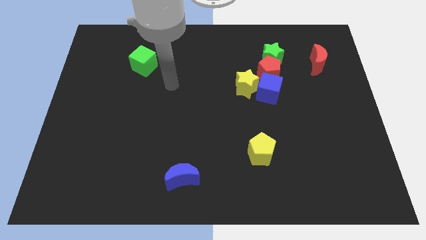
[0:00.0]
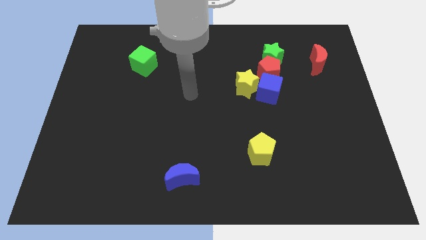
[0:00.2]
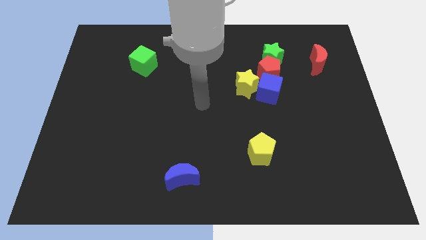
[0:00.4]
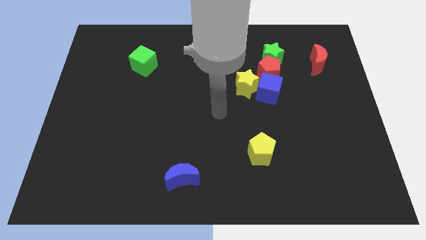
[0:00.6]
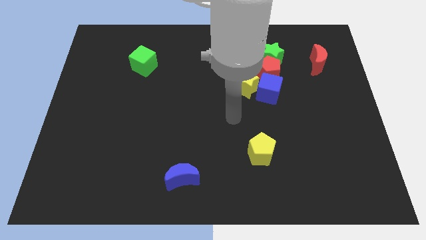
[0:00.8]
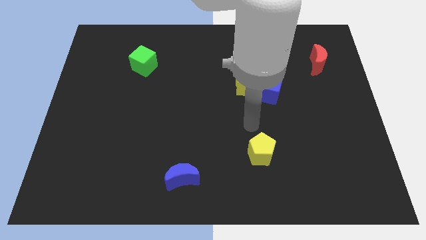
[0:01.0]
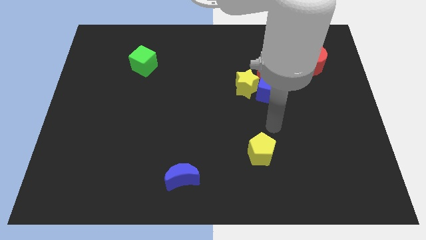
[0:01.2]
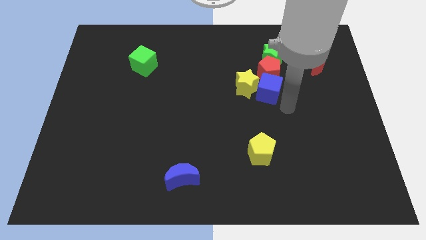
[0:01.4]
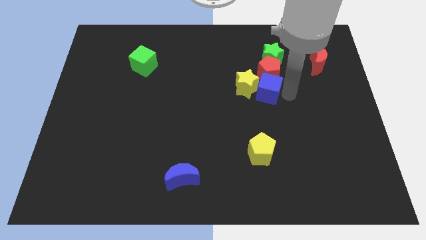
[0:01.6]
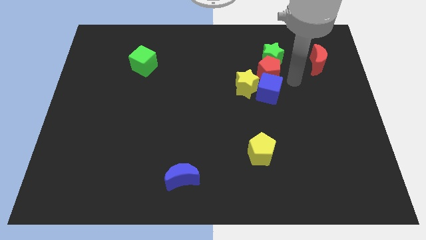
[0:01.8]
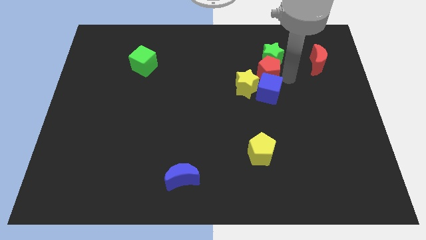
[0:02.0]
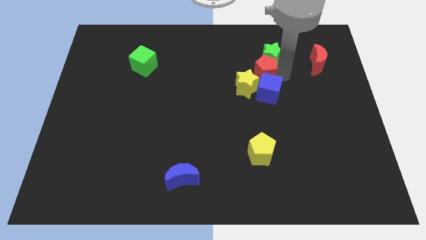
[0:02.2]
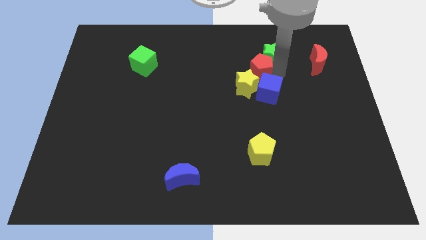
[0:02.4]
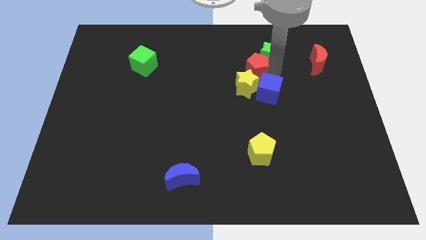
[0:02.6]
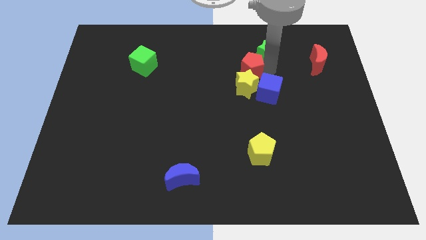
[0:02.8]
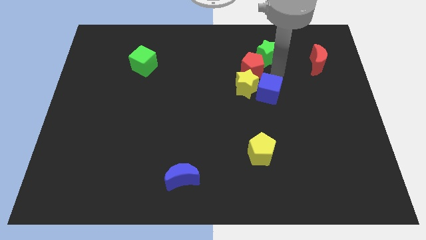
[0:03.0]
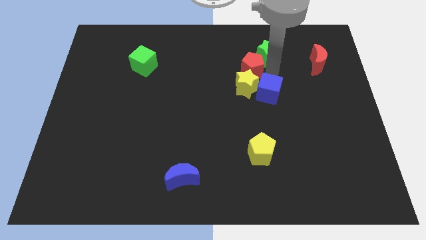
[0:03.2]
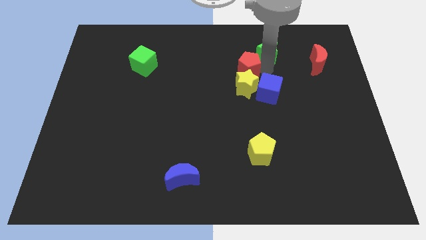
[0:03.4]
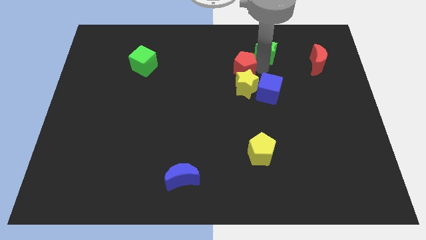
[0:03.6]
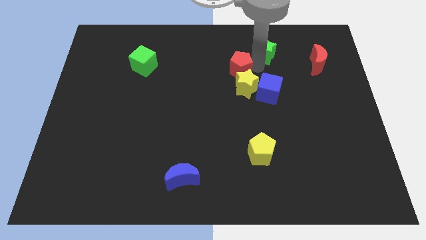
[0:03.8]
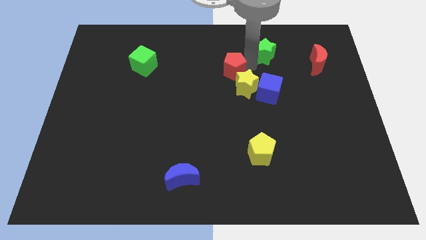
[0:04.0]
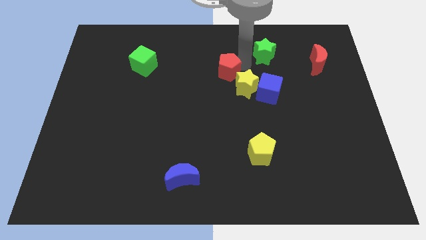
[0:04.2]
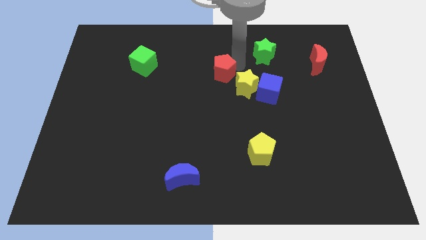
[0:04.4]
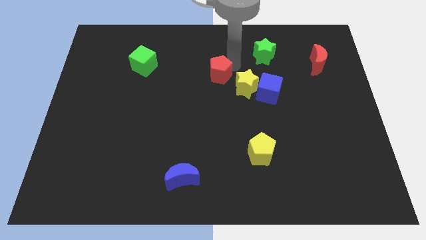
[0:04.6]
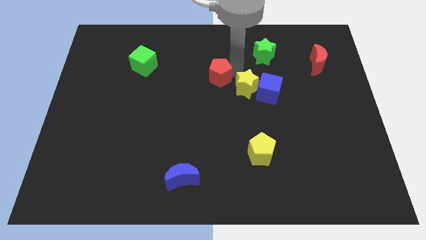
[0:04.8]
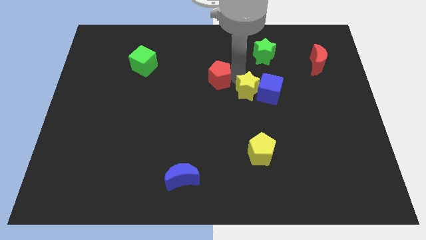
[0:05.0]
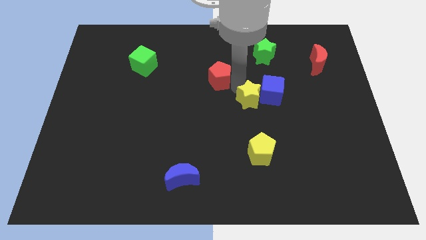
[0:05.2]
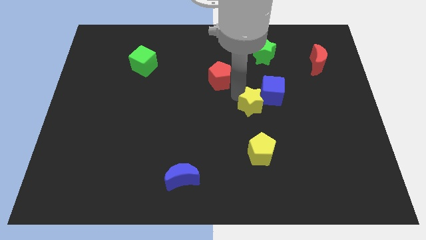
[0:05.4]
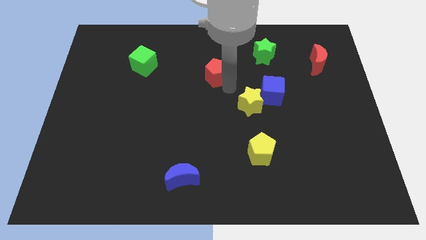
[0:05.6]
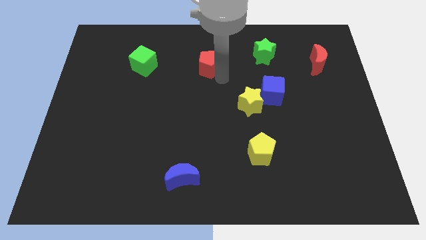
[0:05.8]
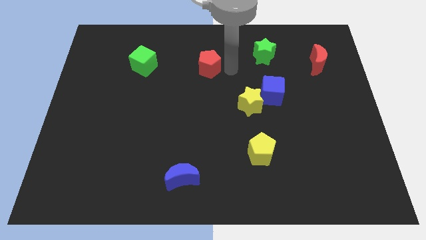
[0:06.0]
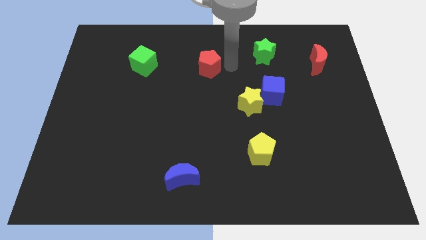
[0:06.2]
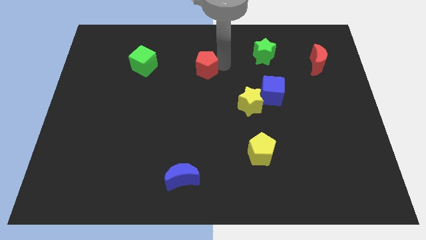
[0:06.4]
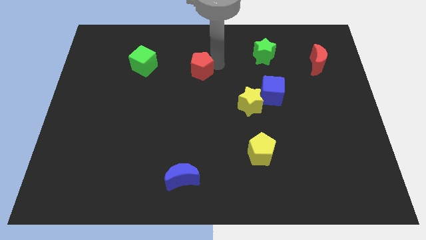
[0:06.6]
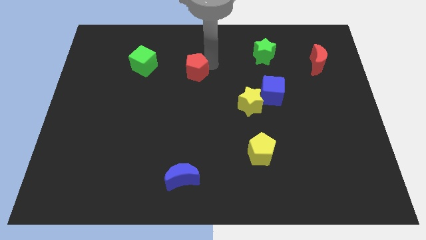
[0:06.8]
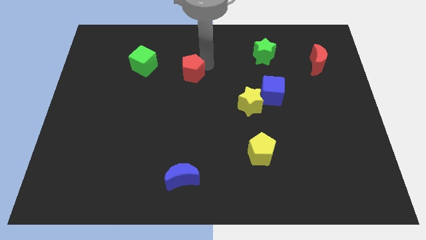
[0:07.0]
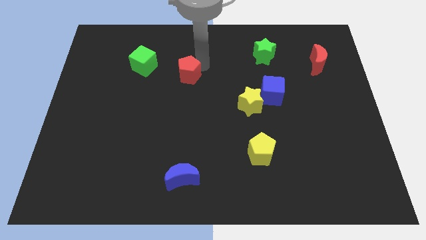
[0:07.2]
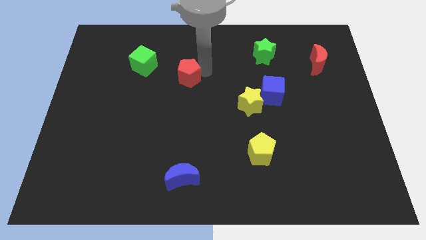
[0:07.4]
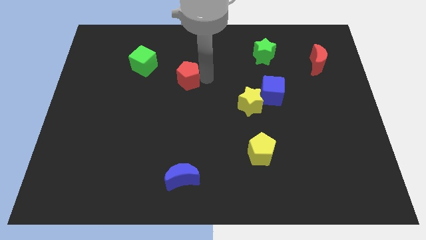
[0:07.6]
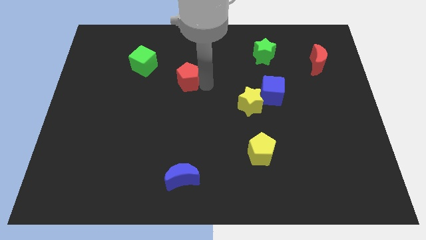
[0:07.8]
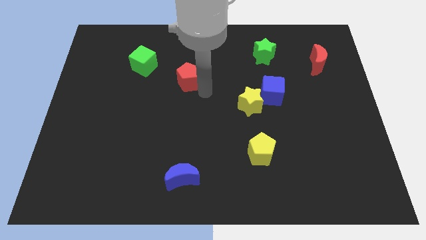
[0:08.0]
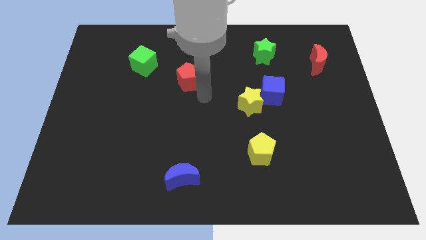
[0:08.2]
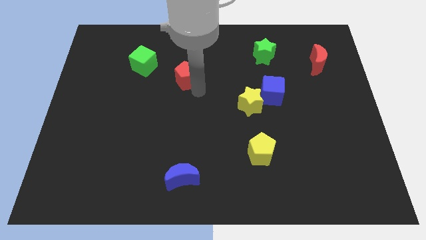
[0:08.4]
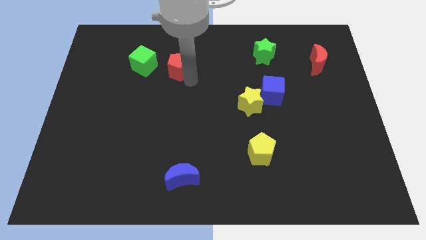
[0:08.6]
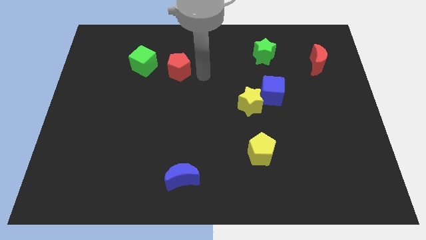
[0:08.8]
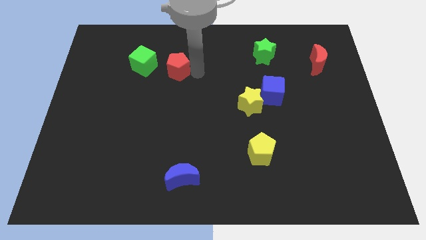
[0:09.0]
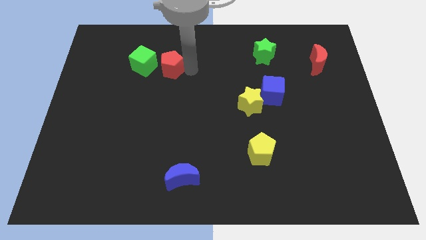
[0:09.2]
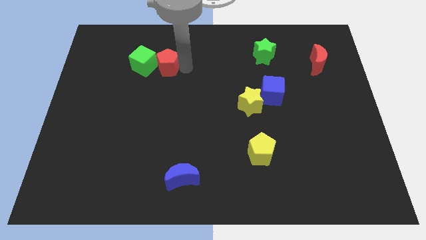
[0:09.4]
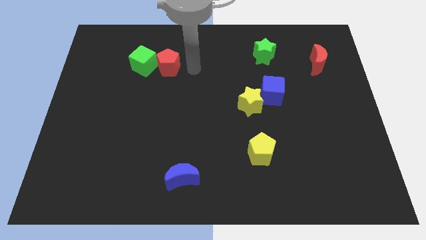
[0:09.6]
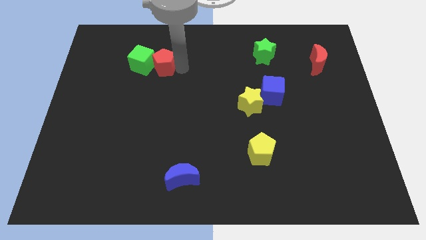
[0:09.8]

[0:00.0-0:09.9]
move the red pentagon to the green cube

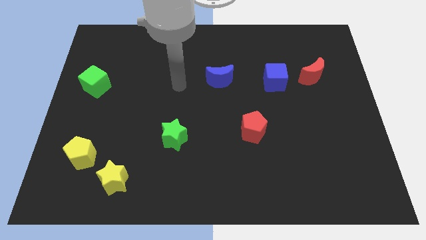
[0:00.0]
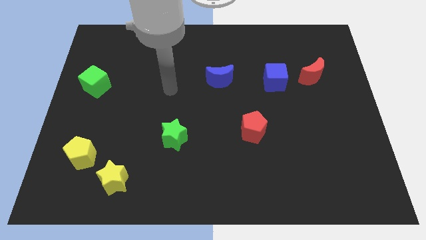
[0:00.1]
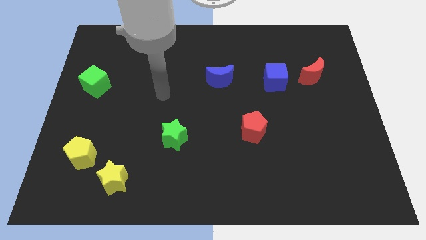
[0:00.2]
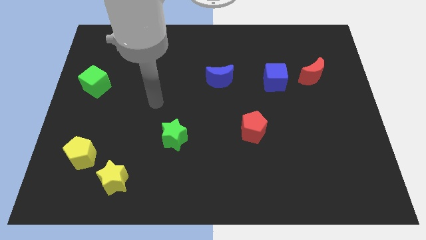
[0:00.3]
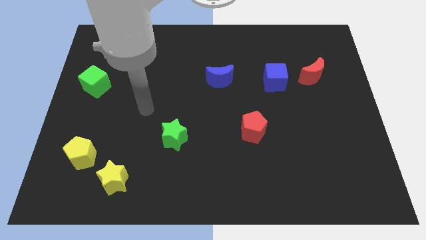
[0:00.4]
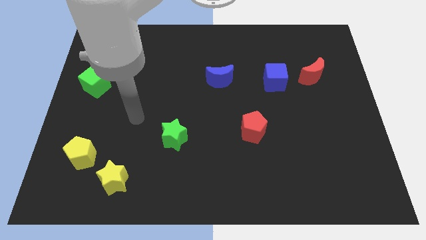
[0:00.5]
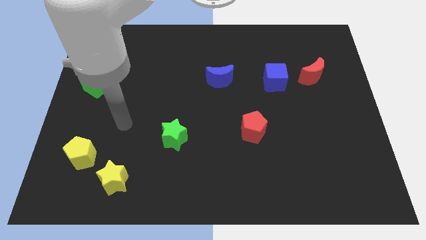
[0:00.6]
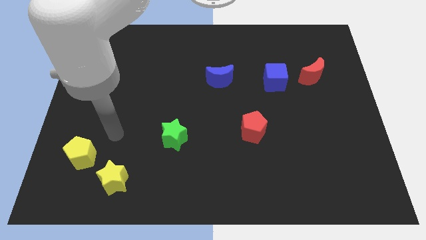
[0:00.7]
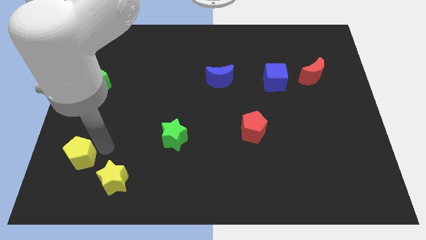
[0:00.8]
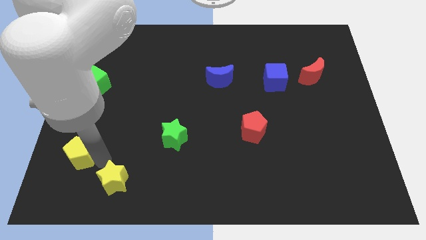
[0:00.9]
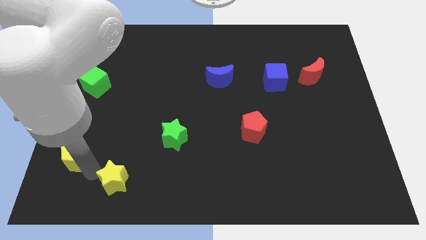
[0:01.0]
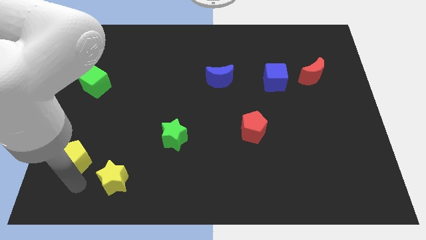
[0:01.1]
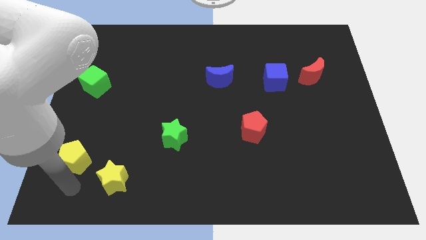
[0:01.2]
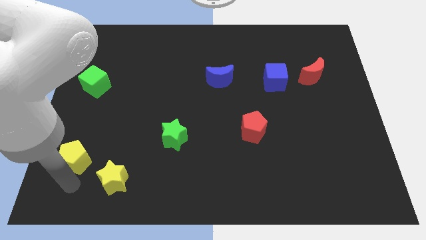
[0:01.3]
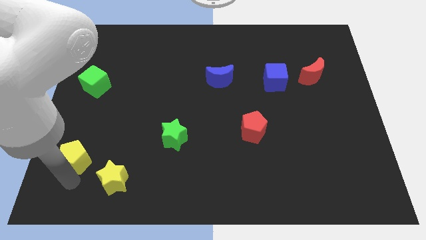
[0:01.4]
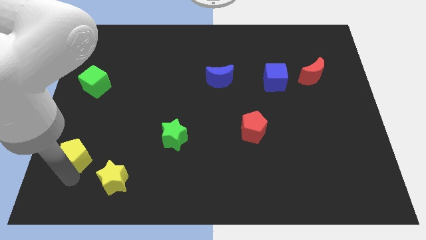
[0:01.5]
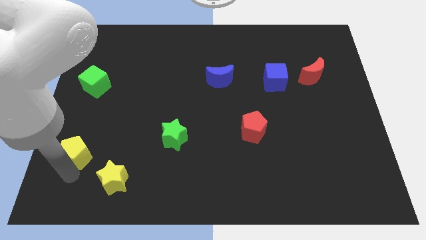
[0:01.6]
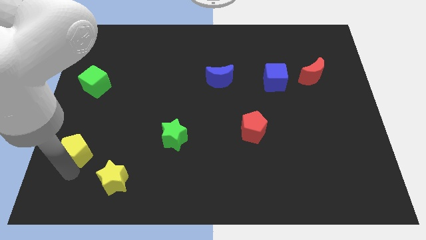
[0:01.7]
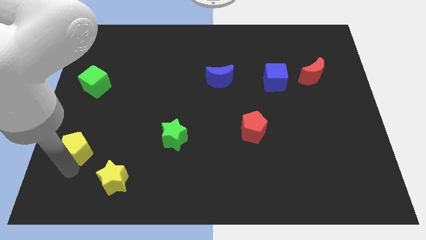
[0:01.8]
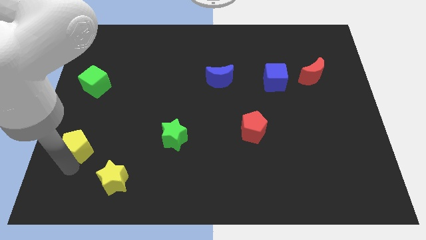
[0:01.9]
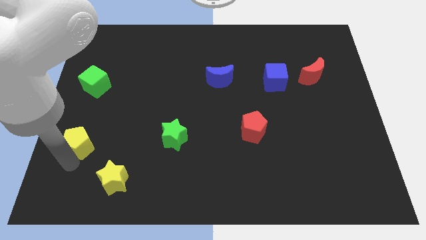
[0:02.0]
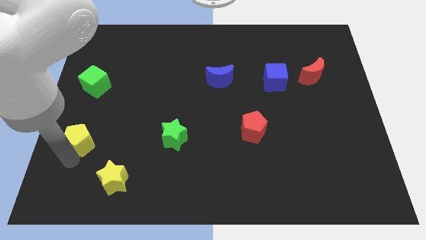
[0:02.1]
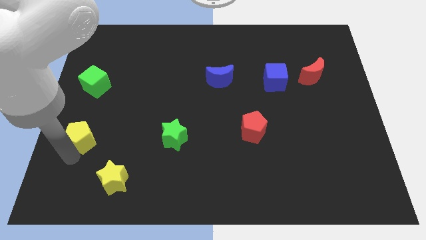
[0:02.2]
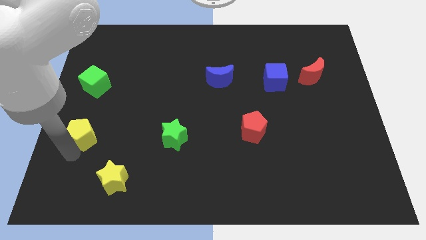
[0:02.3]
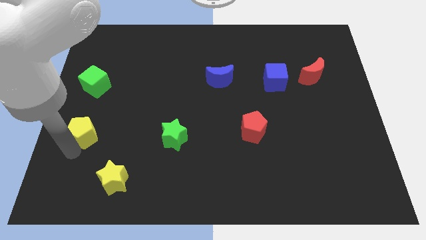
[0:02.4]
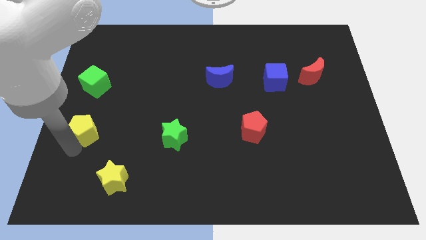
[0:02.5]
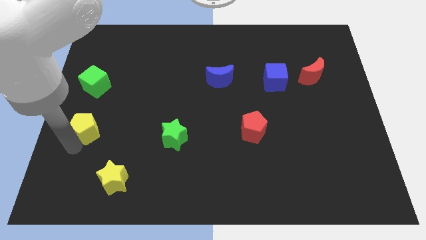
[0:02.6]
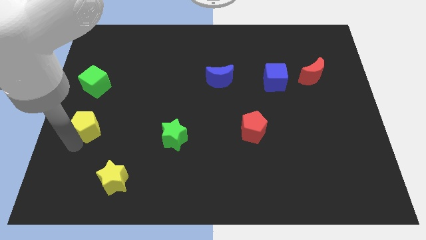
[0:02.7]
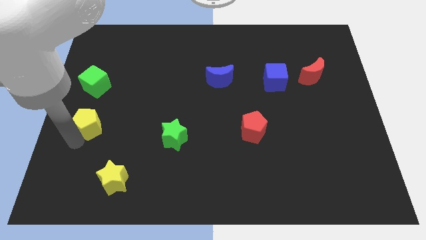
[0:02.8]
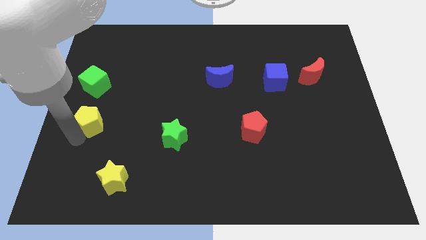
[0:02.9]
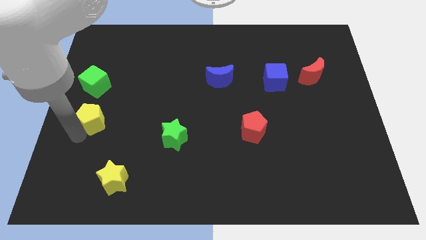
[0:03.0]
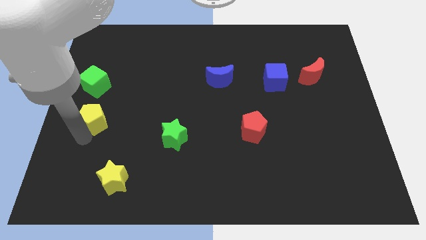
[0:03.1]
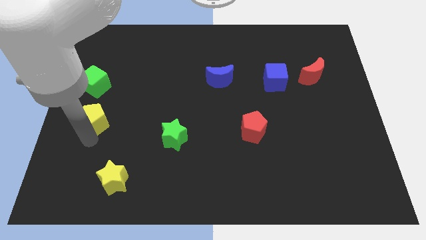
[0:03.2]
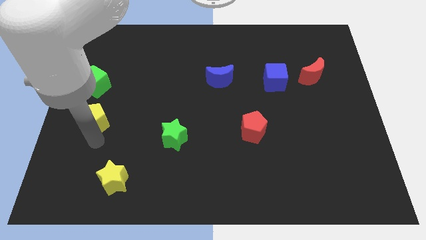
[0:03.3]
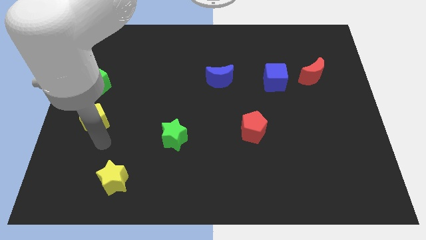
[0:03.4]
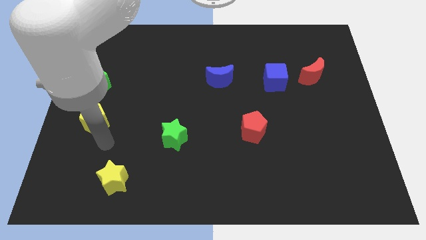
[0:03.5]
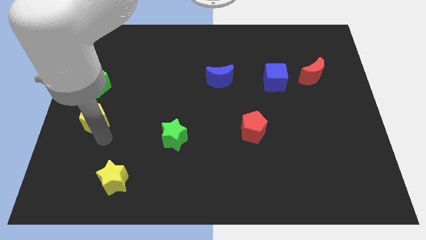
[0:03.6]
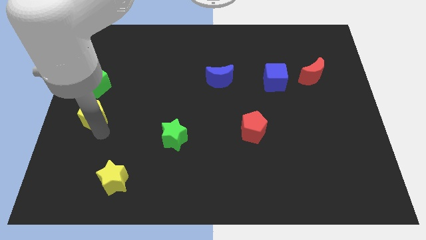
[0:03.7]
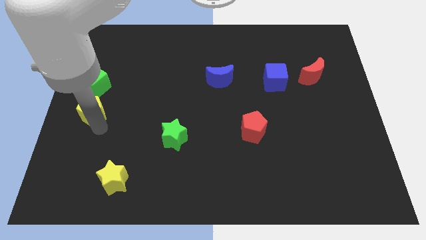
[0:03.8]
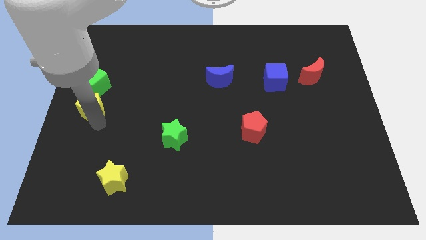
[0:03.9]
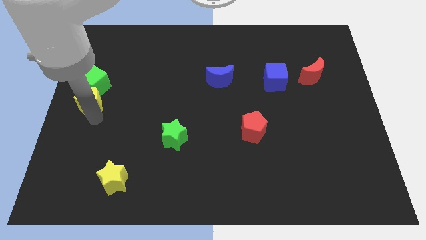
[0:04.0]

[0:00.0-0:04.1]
push the yellow pentagon close to the green cube
